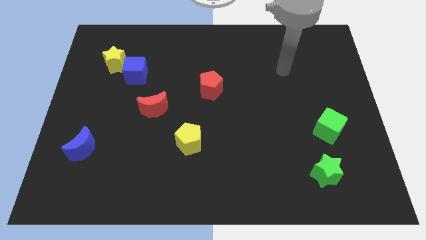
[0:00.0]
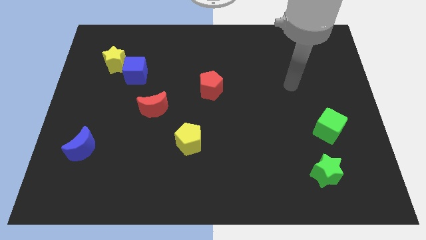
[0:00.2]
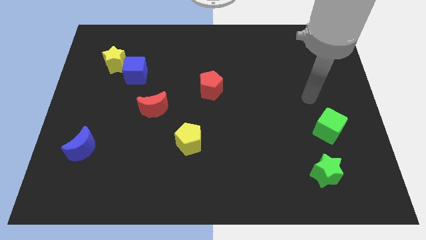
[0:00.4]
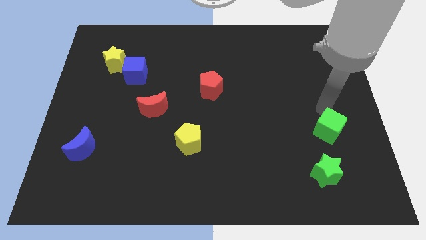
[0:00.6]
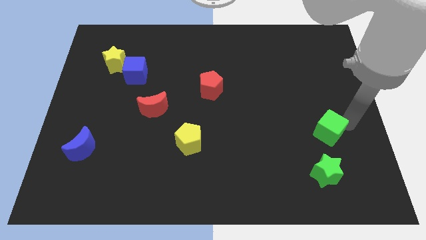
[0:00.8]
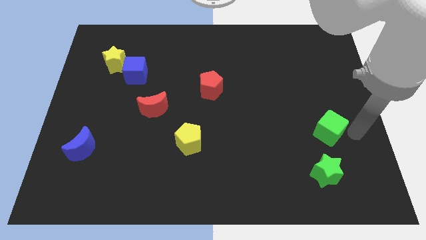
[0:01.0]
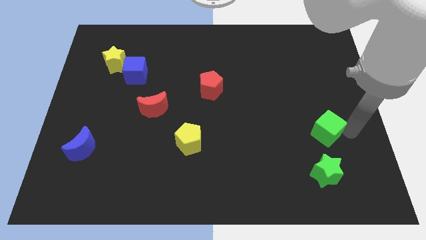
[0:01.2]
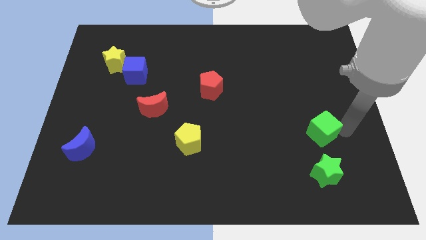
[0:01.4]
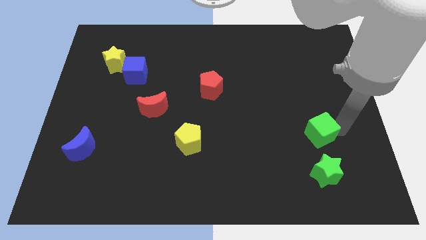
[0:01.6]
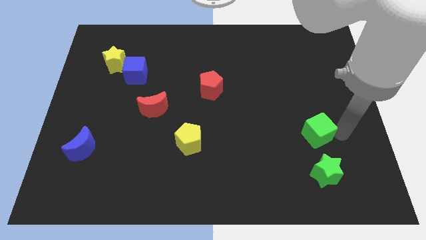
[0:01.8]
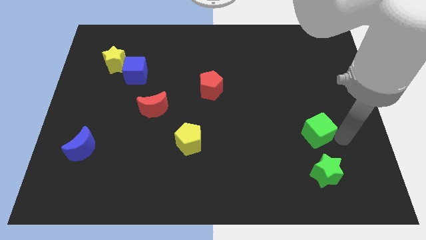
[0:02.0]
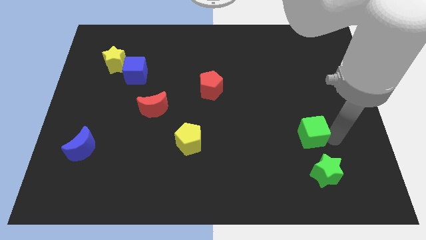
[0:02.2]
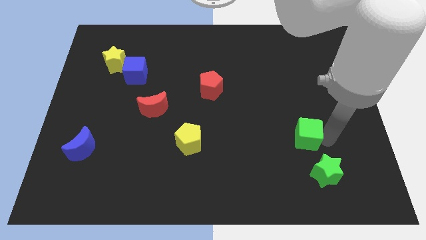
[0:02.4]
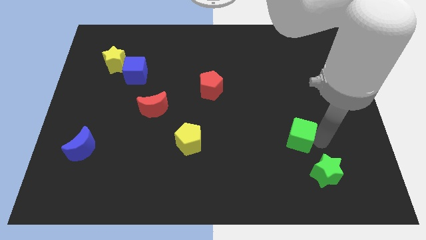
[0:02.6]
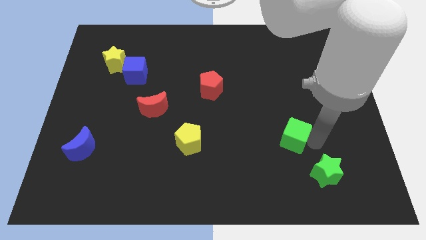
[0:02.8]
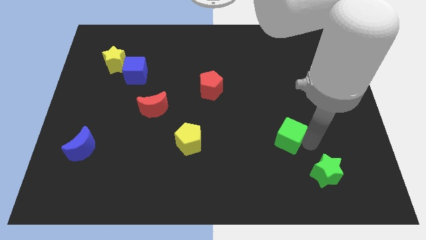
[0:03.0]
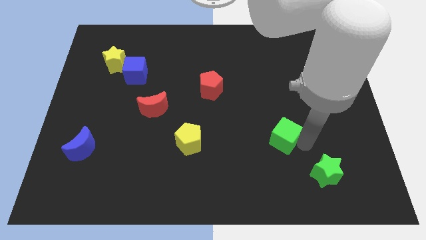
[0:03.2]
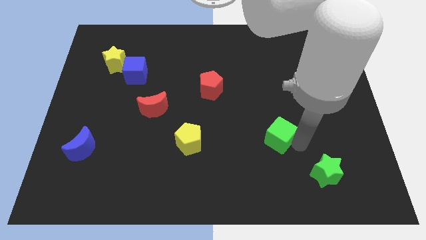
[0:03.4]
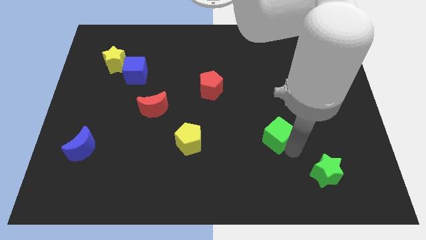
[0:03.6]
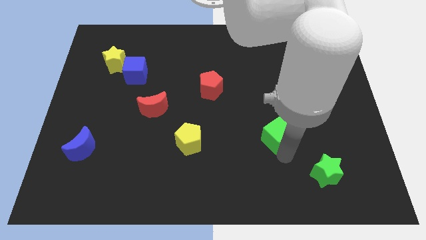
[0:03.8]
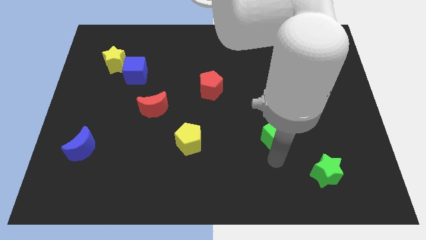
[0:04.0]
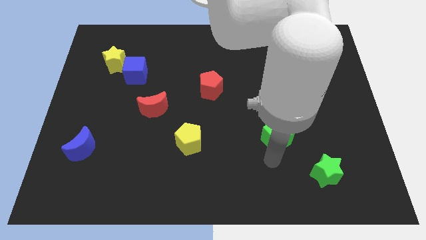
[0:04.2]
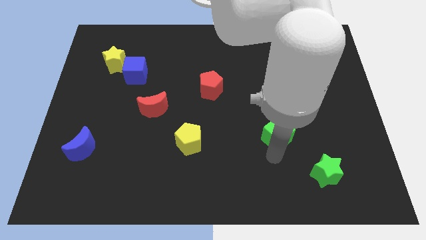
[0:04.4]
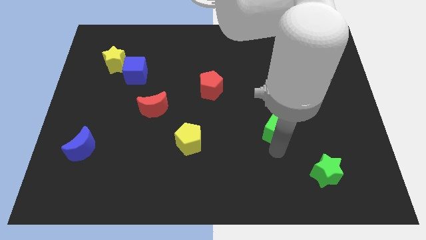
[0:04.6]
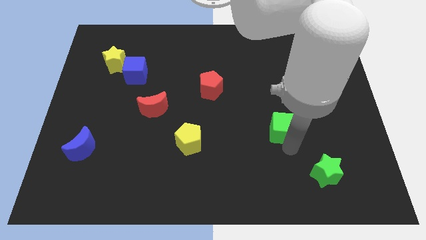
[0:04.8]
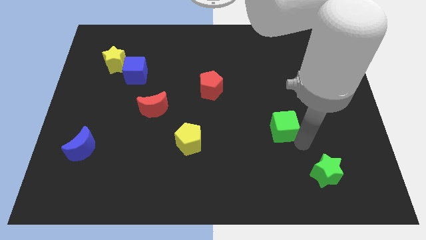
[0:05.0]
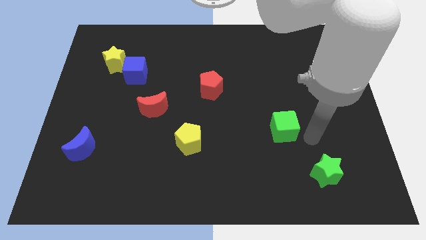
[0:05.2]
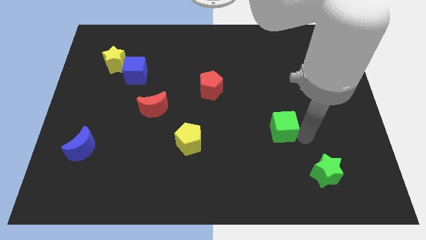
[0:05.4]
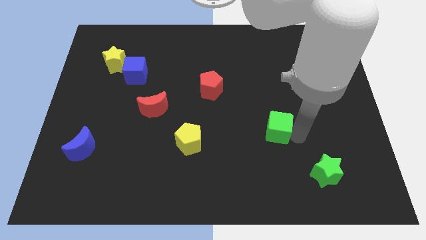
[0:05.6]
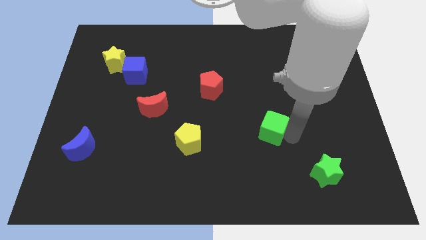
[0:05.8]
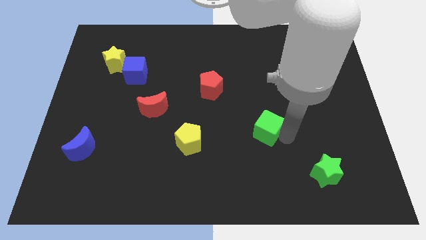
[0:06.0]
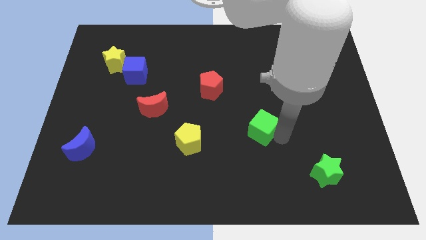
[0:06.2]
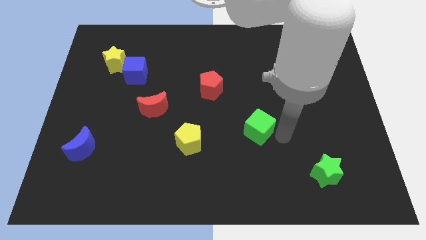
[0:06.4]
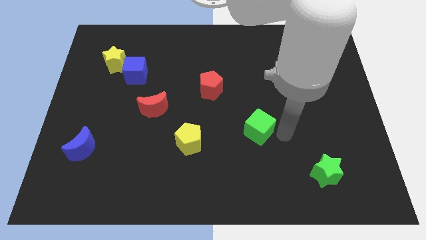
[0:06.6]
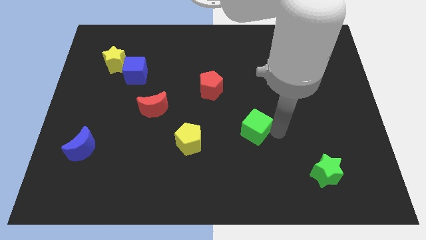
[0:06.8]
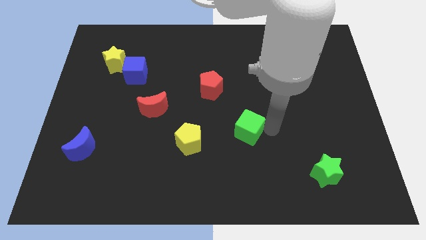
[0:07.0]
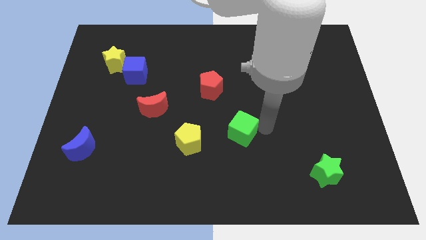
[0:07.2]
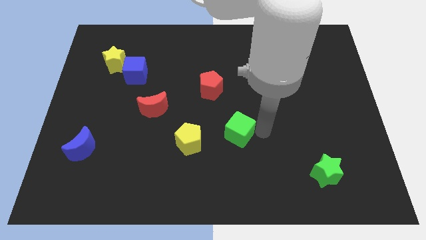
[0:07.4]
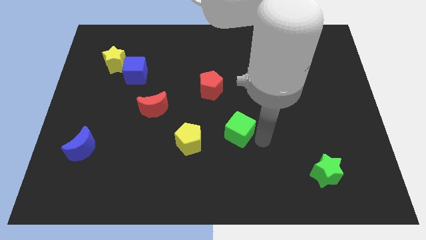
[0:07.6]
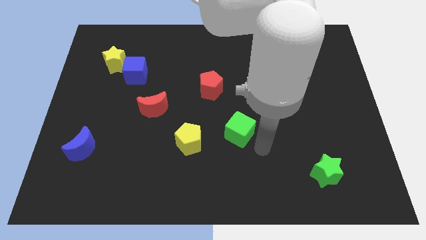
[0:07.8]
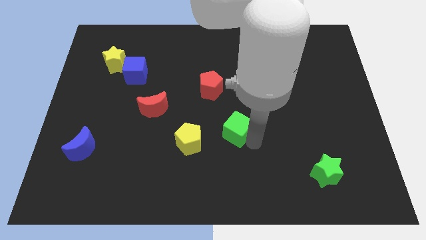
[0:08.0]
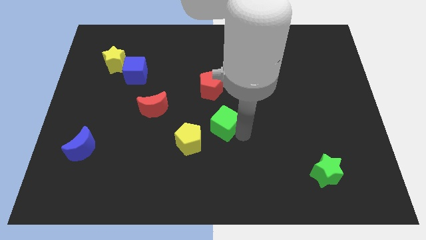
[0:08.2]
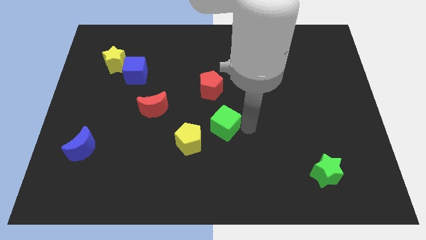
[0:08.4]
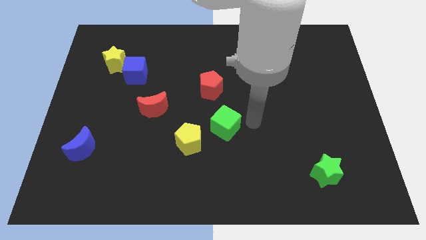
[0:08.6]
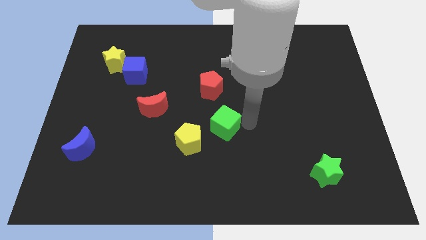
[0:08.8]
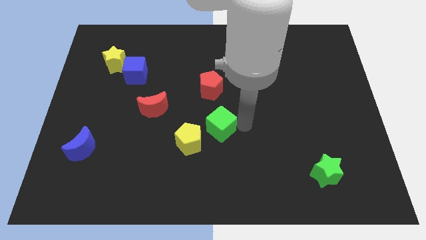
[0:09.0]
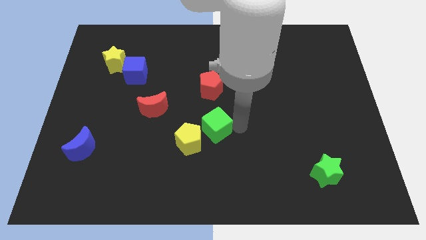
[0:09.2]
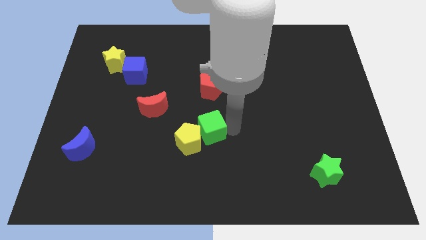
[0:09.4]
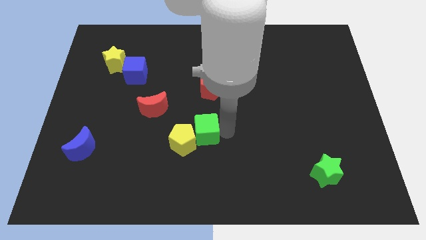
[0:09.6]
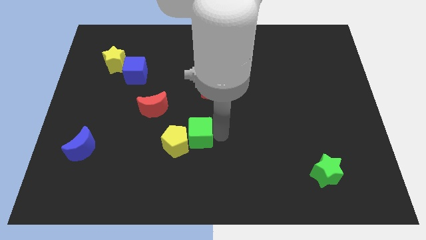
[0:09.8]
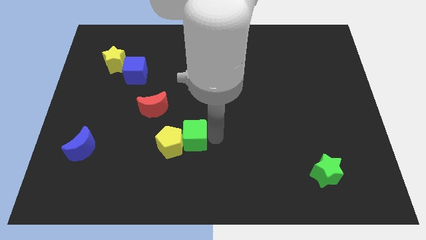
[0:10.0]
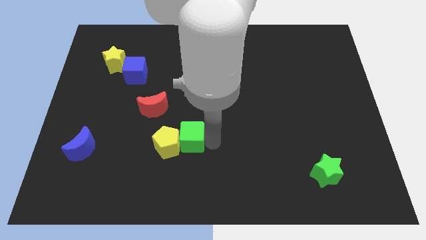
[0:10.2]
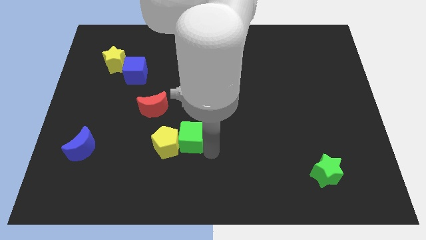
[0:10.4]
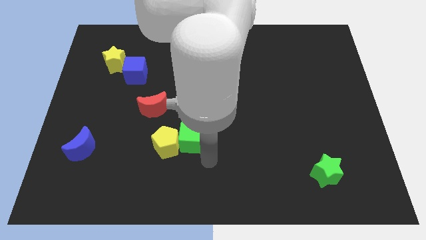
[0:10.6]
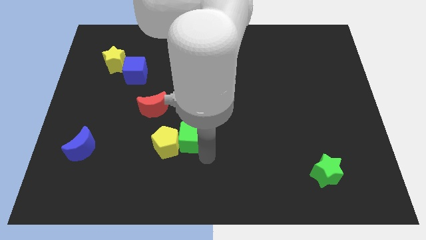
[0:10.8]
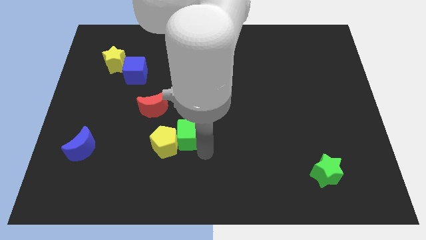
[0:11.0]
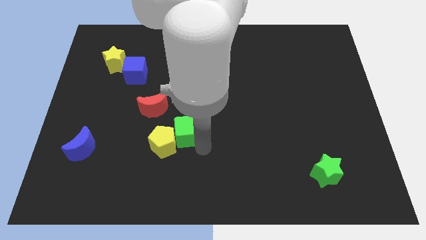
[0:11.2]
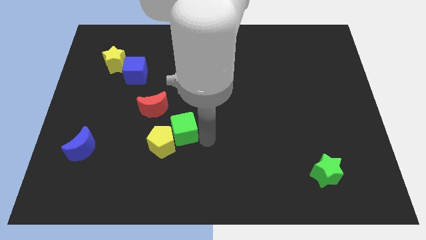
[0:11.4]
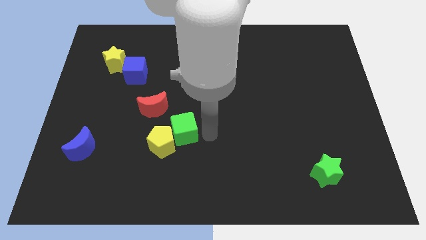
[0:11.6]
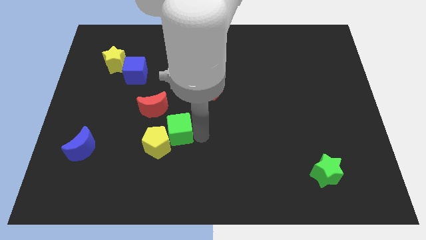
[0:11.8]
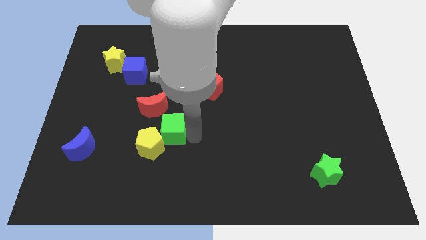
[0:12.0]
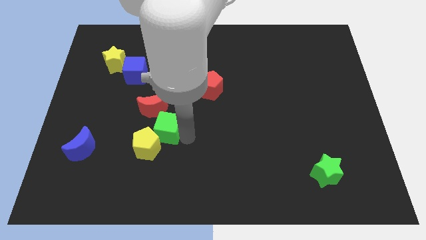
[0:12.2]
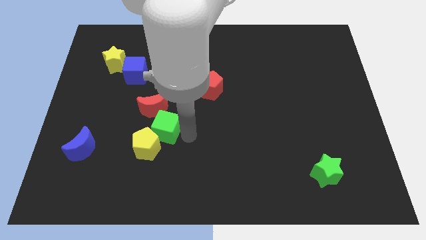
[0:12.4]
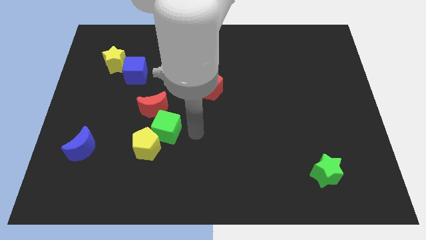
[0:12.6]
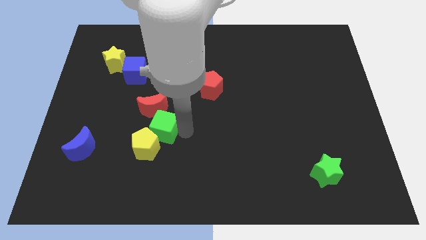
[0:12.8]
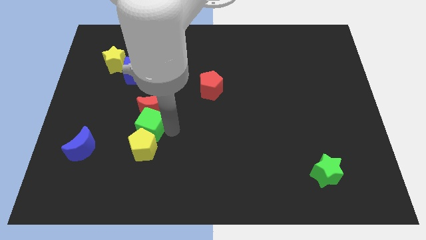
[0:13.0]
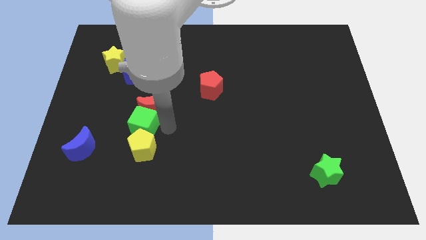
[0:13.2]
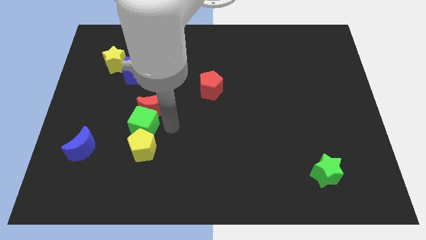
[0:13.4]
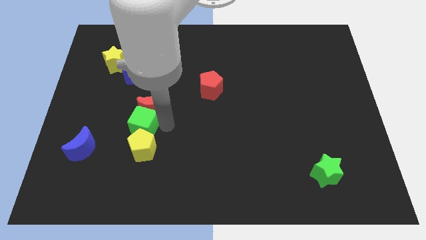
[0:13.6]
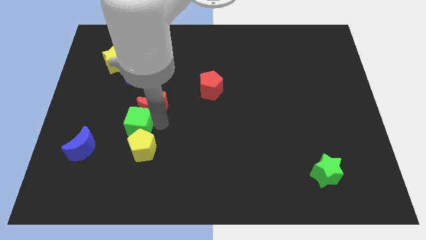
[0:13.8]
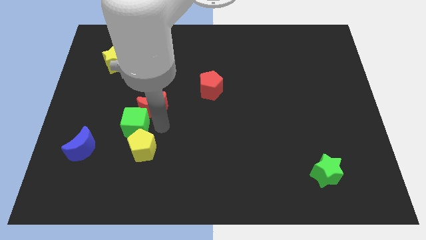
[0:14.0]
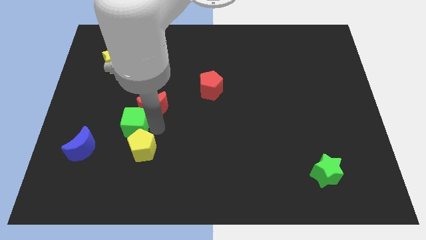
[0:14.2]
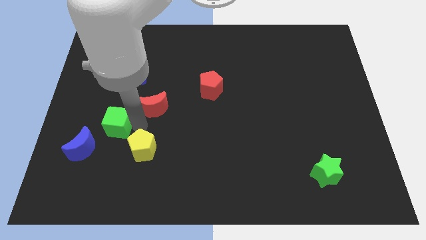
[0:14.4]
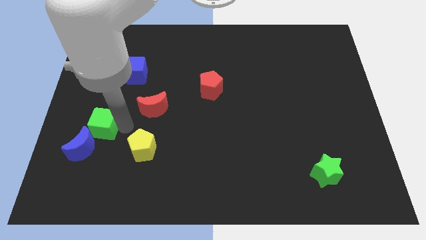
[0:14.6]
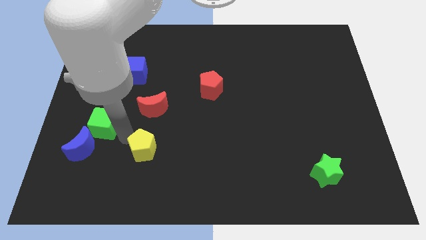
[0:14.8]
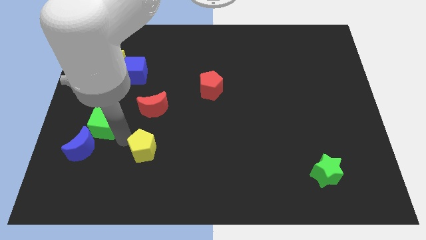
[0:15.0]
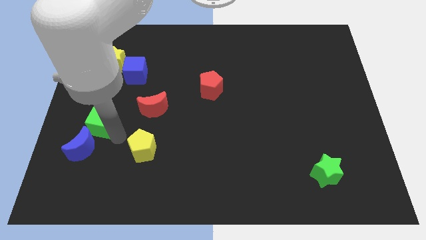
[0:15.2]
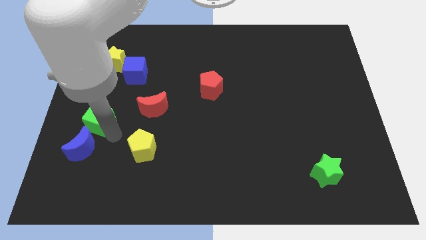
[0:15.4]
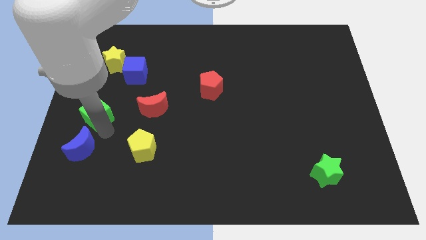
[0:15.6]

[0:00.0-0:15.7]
move the green cube to the left side of the board
